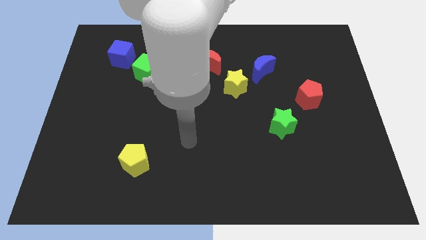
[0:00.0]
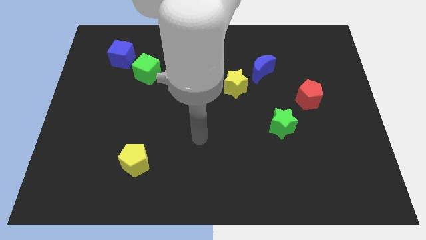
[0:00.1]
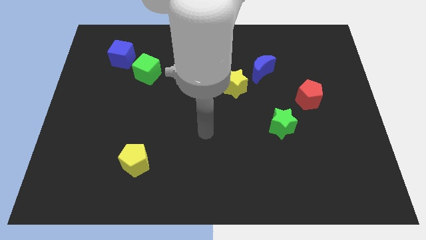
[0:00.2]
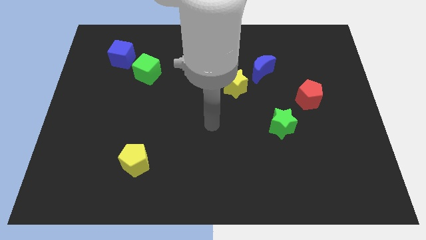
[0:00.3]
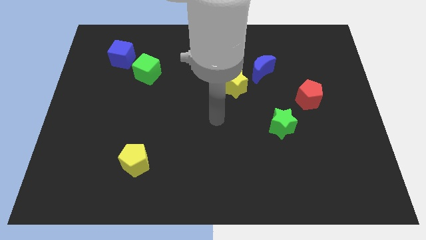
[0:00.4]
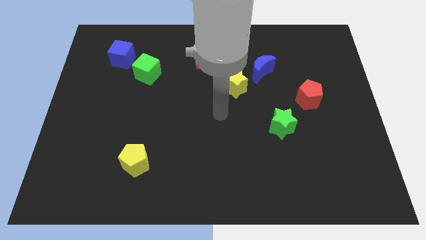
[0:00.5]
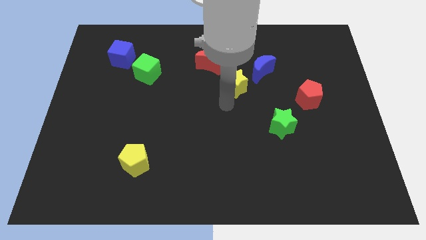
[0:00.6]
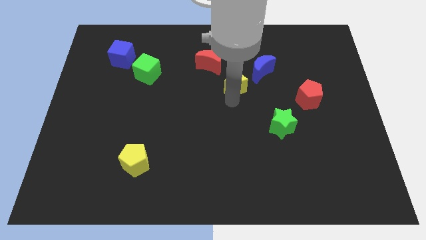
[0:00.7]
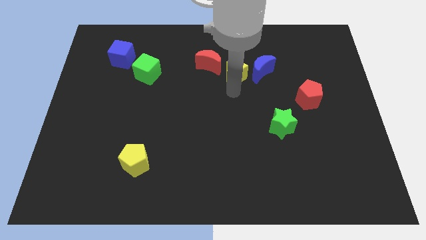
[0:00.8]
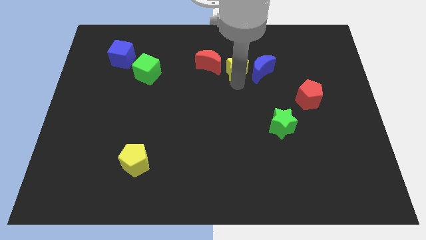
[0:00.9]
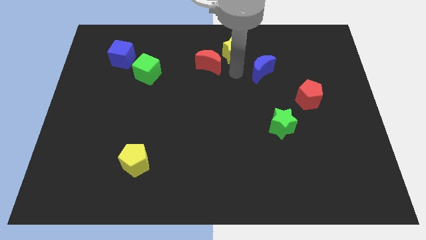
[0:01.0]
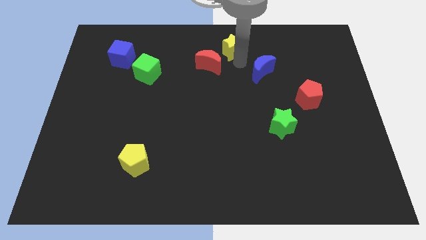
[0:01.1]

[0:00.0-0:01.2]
pull the blue moon apart from the yellow star

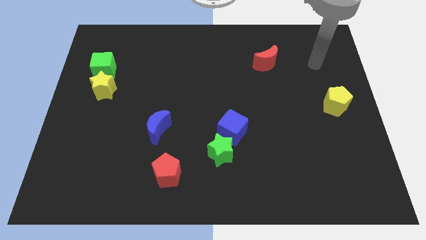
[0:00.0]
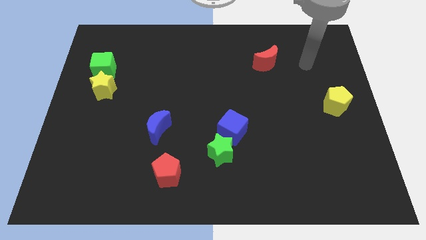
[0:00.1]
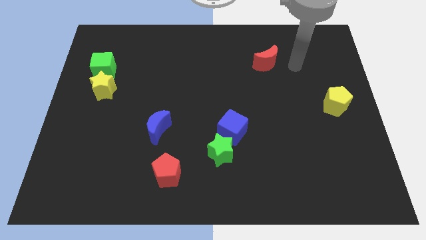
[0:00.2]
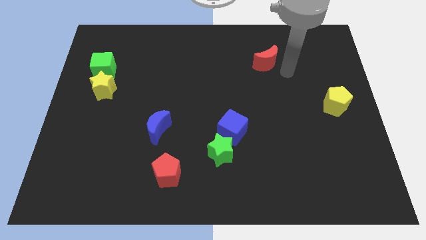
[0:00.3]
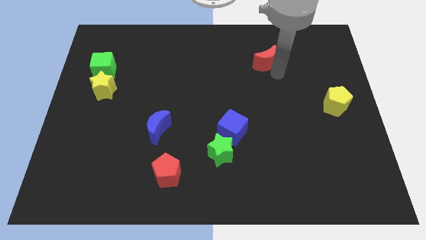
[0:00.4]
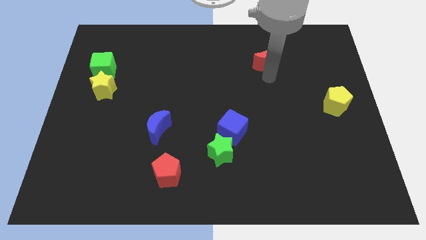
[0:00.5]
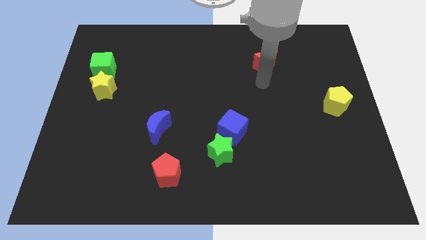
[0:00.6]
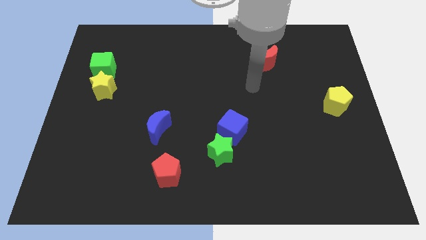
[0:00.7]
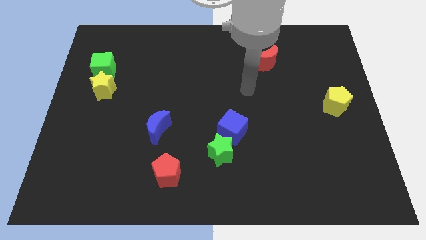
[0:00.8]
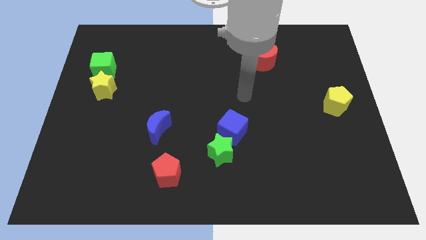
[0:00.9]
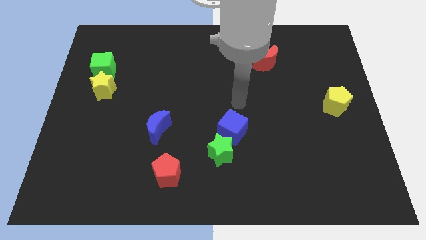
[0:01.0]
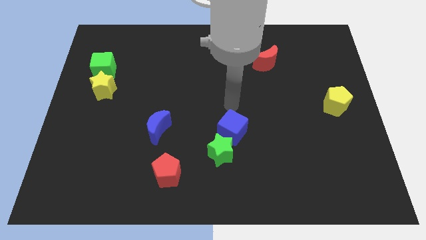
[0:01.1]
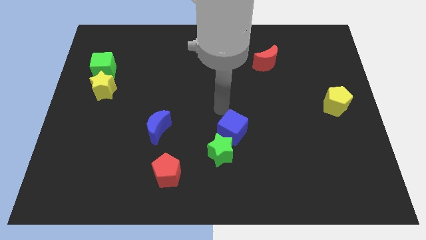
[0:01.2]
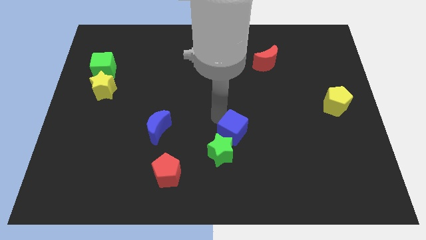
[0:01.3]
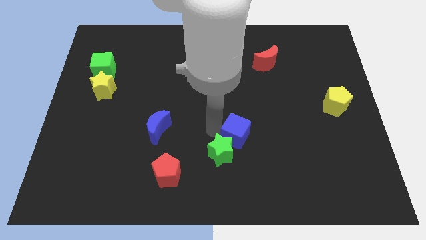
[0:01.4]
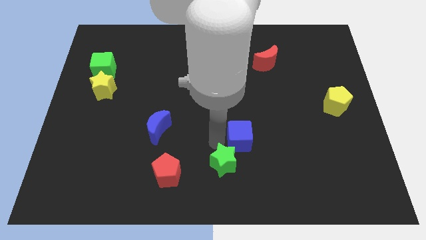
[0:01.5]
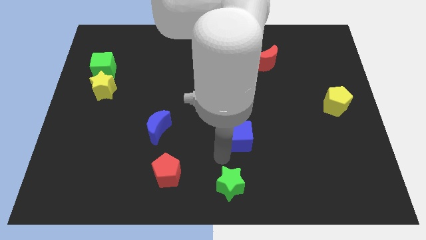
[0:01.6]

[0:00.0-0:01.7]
separate the blue cube from the green star

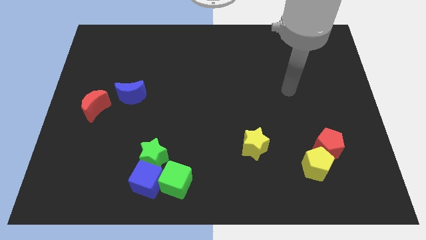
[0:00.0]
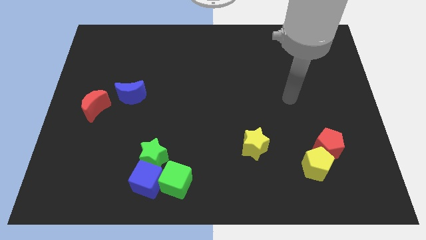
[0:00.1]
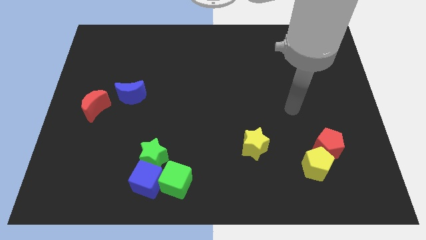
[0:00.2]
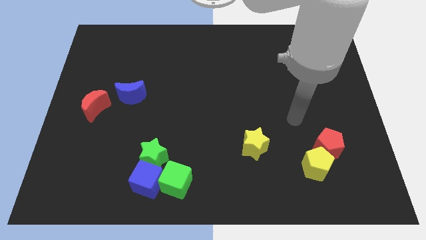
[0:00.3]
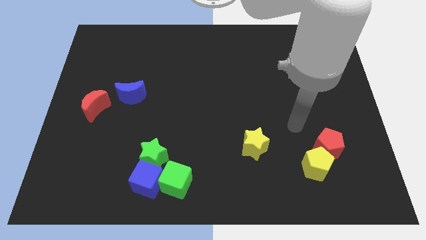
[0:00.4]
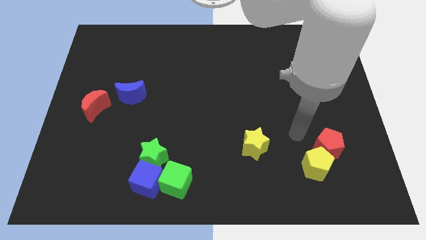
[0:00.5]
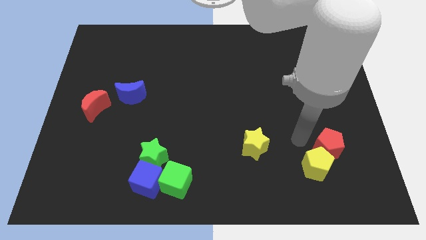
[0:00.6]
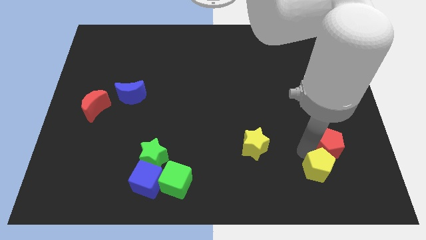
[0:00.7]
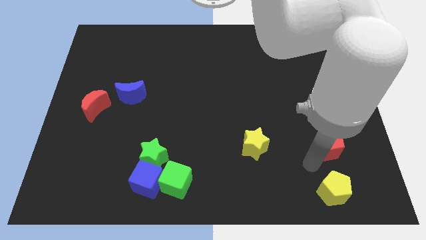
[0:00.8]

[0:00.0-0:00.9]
move the red pentagon away from the yellow pentagon

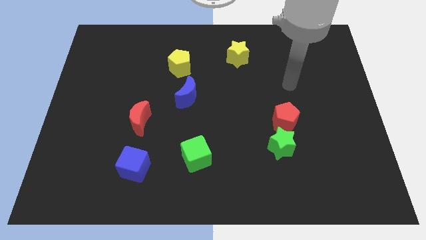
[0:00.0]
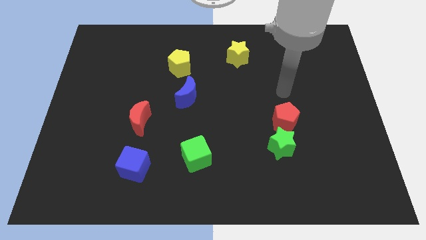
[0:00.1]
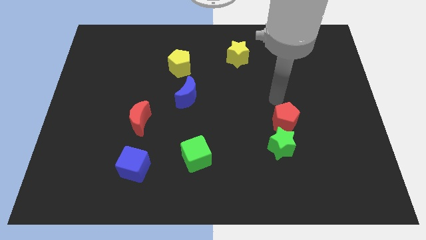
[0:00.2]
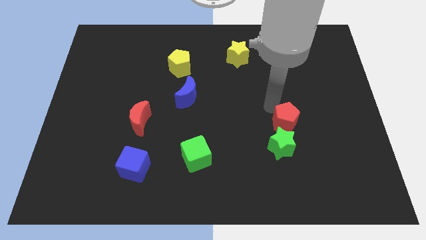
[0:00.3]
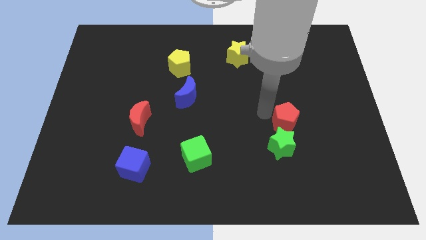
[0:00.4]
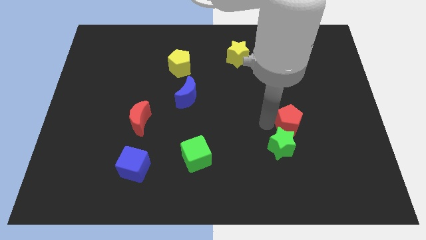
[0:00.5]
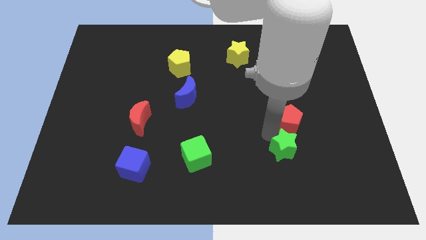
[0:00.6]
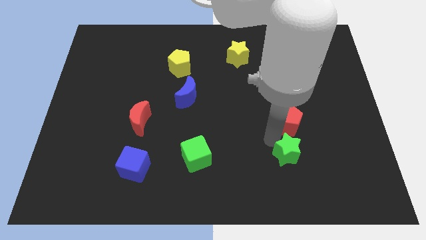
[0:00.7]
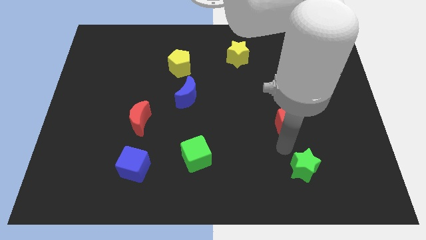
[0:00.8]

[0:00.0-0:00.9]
move the red pentagon away from the green star

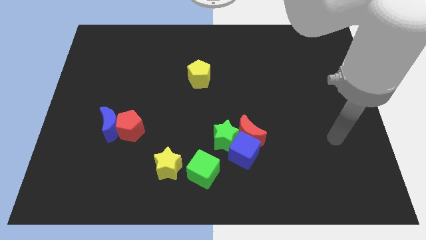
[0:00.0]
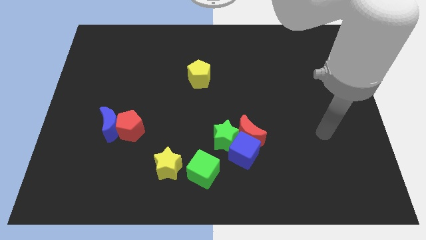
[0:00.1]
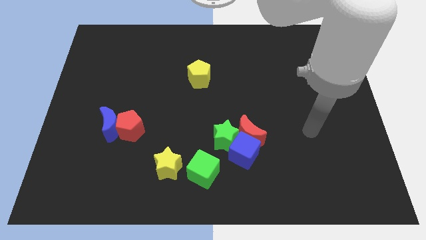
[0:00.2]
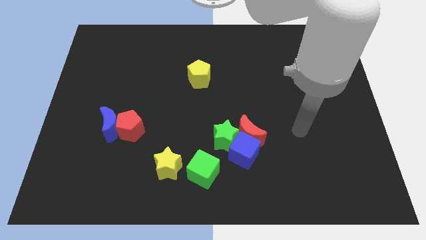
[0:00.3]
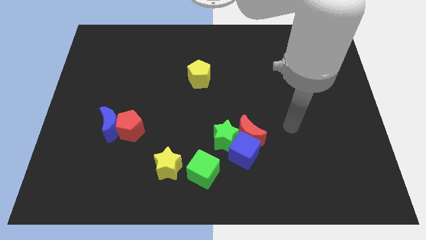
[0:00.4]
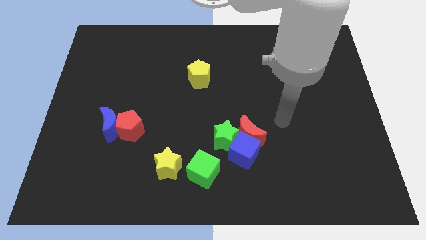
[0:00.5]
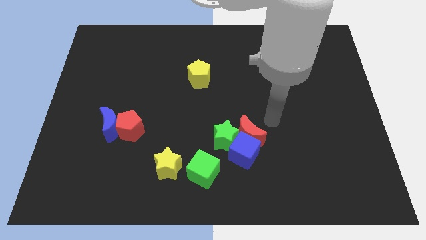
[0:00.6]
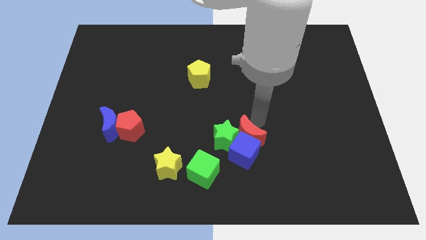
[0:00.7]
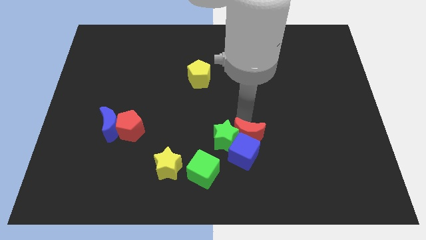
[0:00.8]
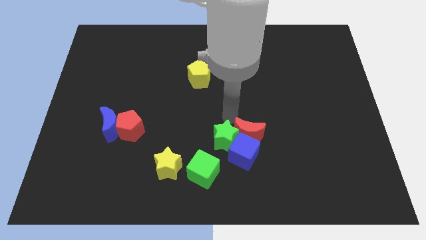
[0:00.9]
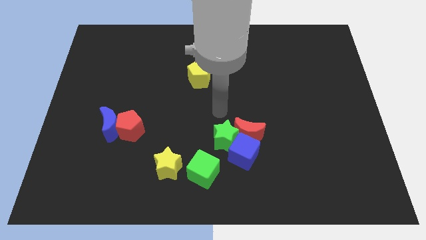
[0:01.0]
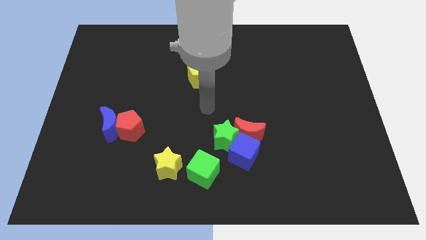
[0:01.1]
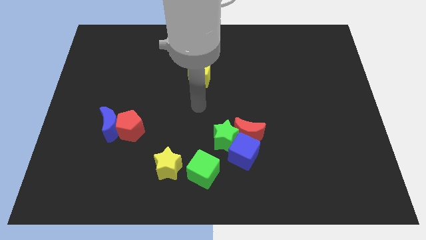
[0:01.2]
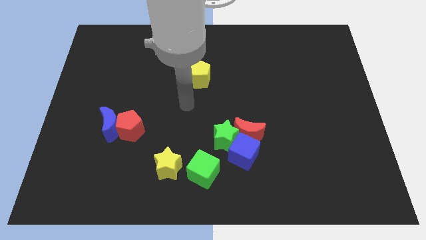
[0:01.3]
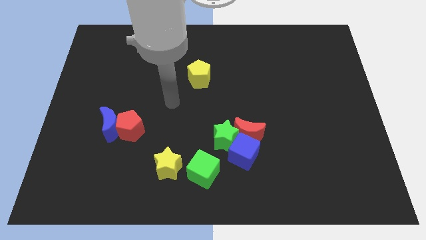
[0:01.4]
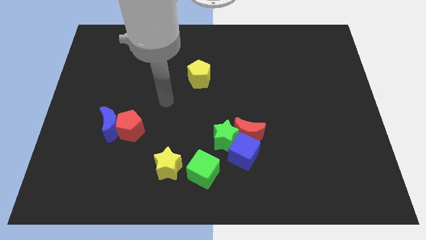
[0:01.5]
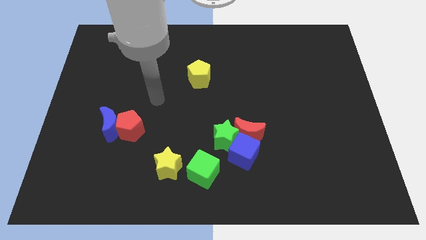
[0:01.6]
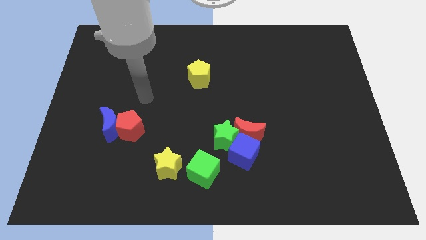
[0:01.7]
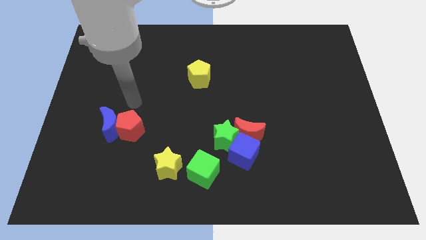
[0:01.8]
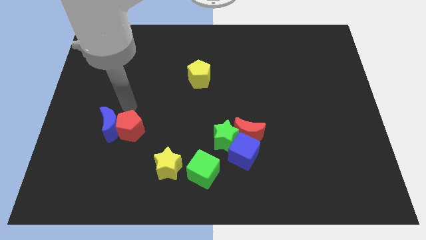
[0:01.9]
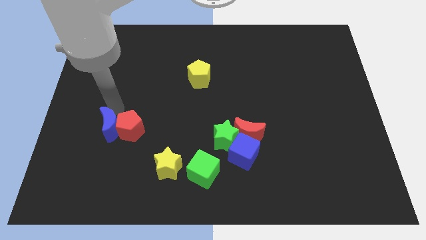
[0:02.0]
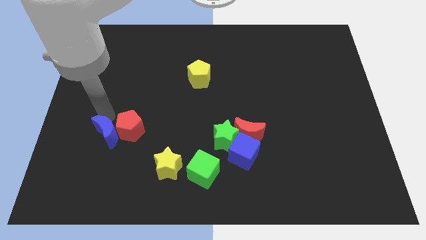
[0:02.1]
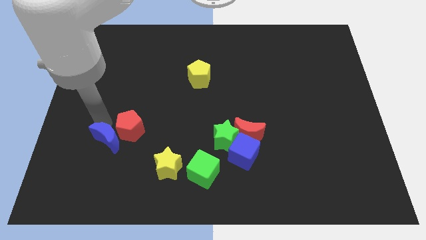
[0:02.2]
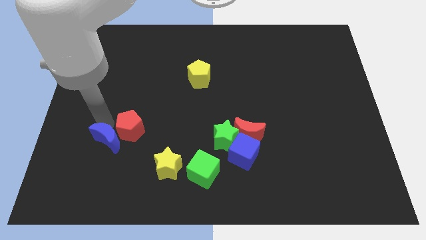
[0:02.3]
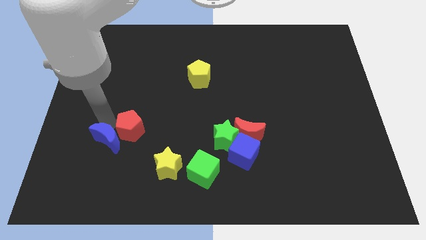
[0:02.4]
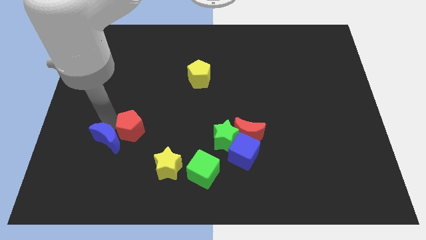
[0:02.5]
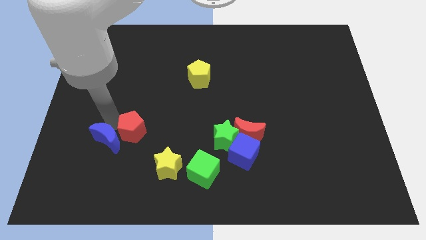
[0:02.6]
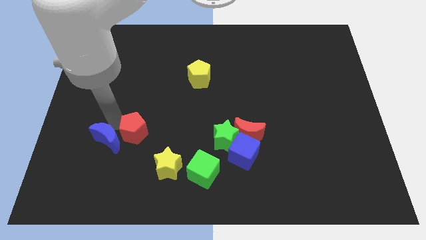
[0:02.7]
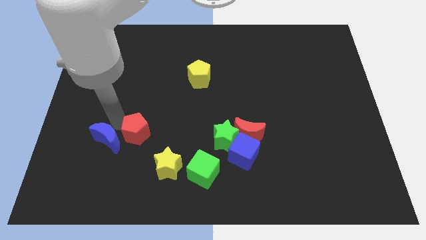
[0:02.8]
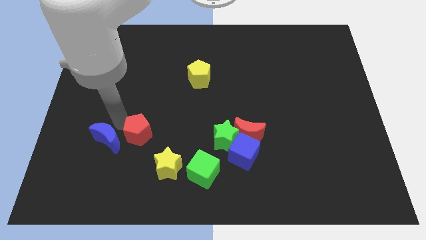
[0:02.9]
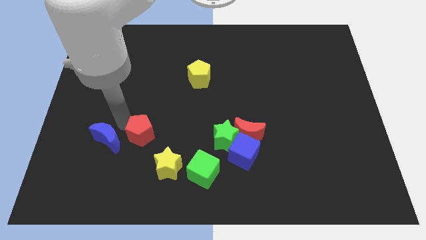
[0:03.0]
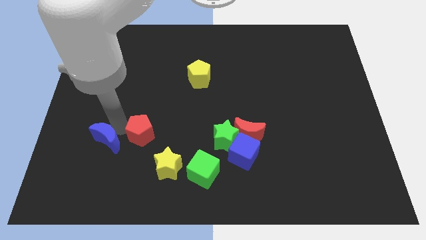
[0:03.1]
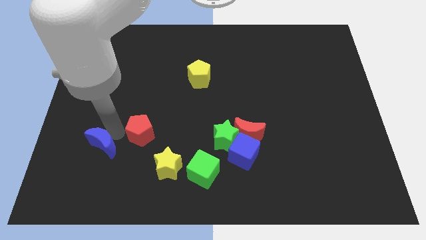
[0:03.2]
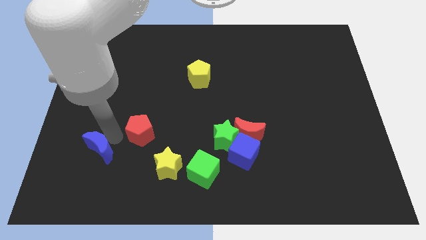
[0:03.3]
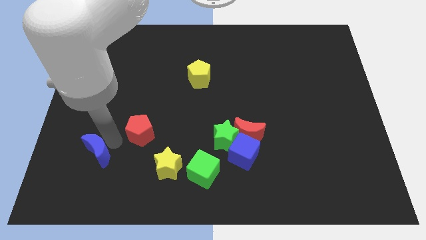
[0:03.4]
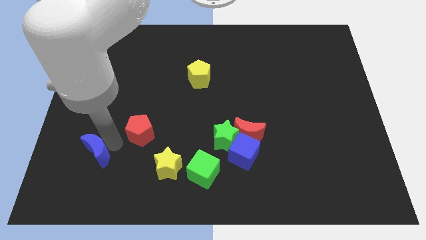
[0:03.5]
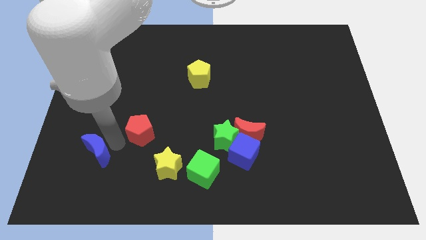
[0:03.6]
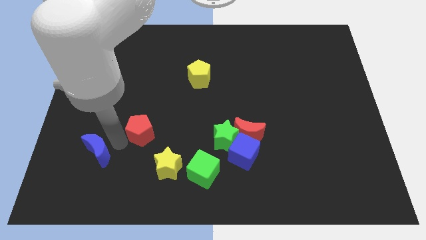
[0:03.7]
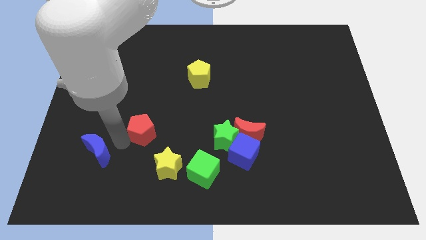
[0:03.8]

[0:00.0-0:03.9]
separate the red pentagon from the blue moon

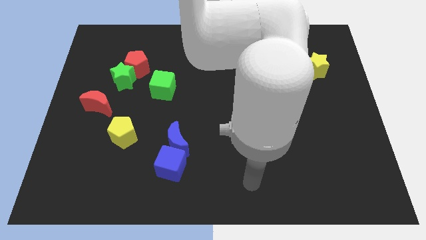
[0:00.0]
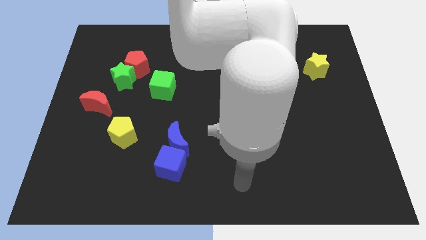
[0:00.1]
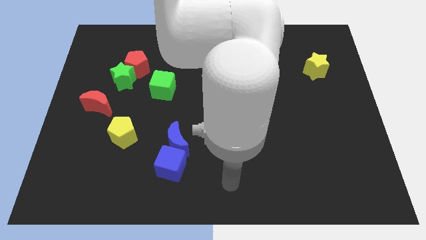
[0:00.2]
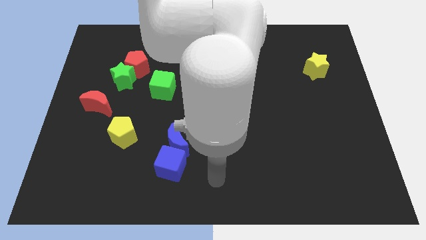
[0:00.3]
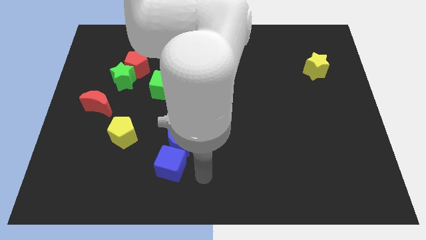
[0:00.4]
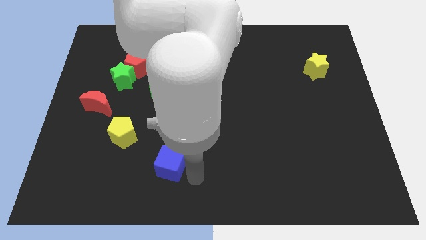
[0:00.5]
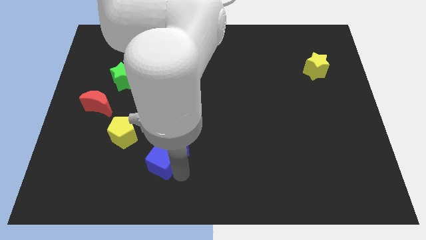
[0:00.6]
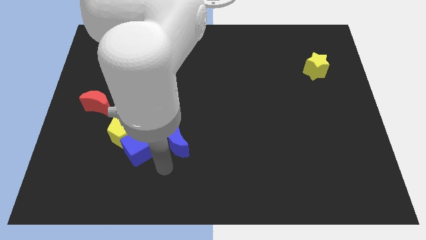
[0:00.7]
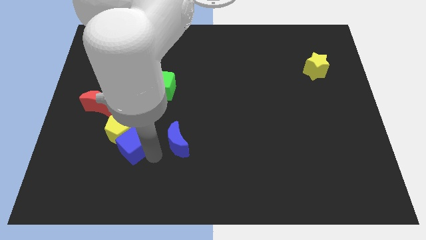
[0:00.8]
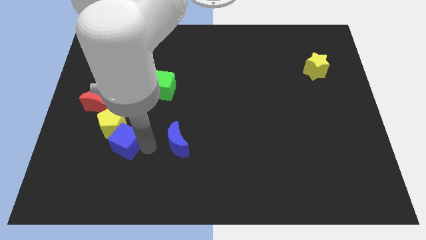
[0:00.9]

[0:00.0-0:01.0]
separate the blue moon from the blue cube
